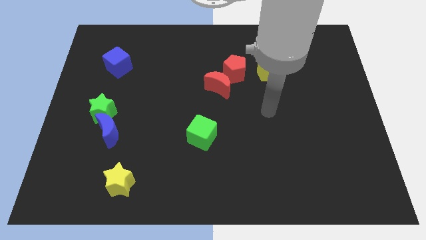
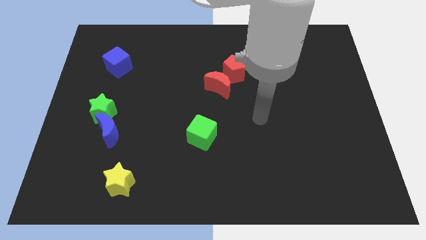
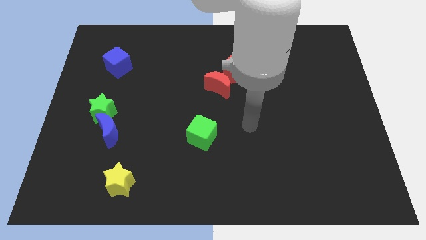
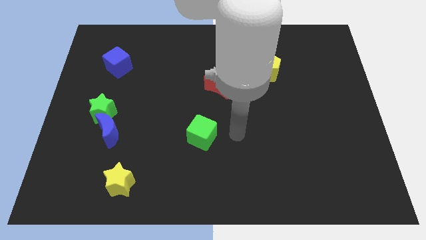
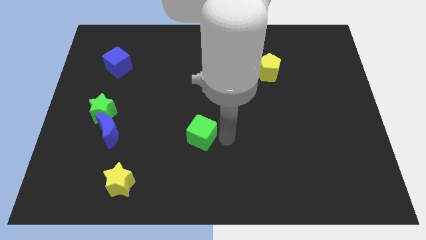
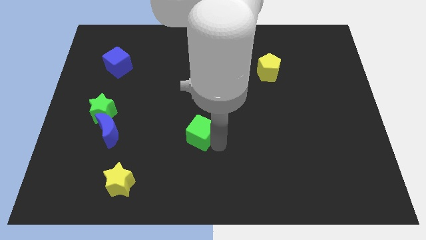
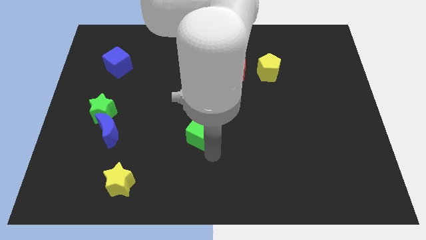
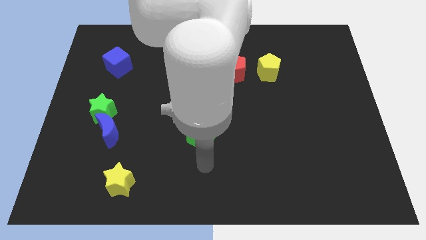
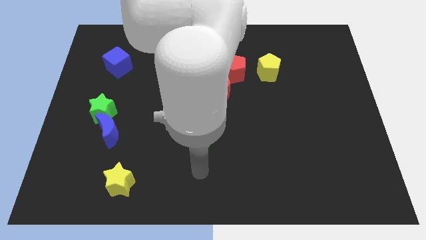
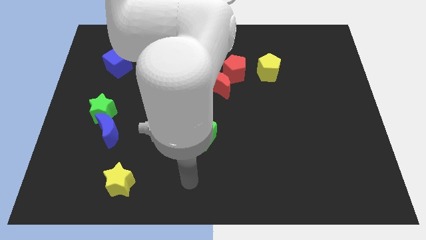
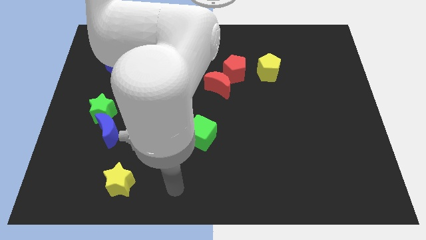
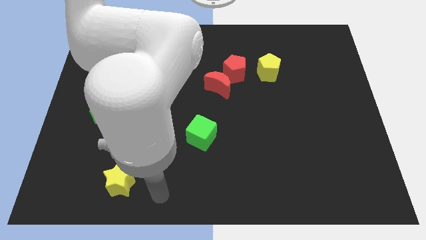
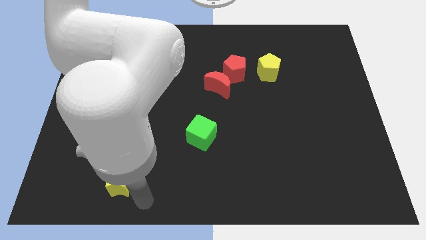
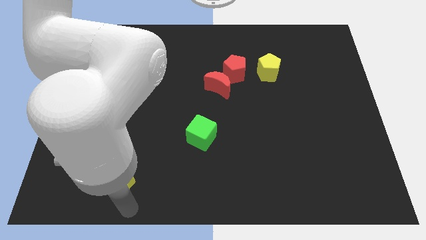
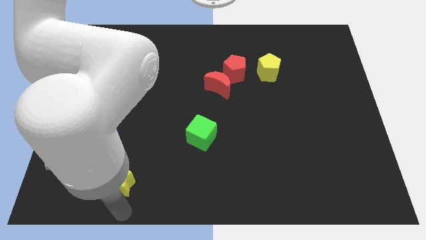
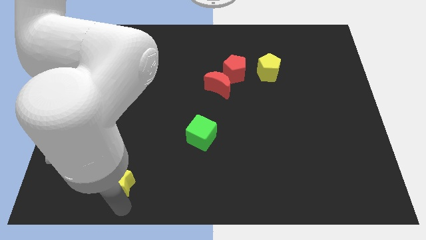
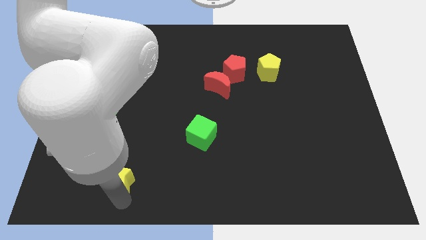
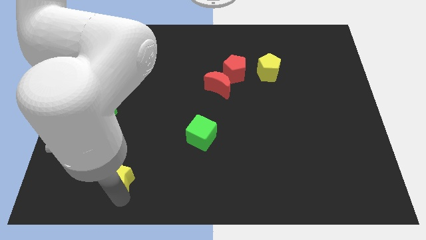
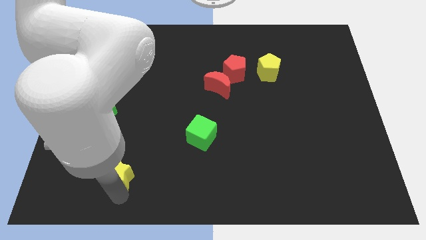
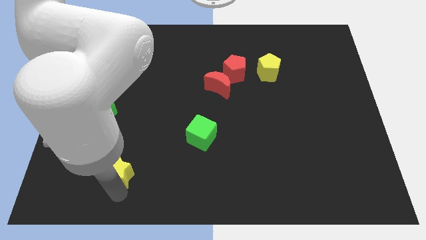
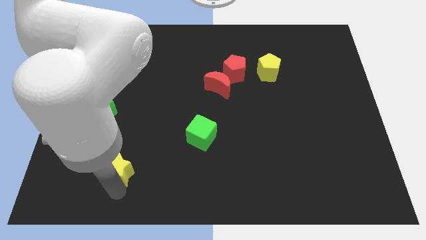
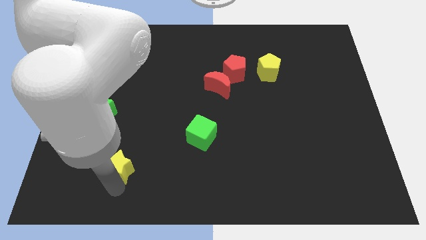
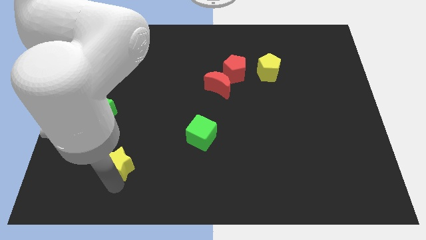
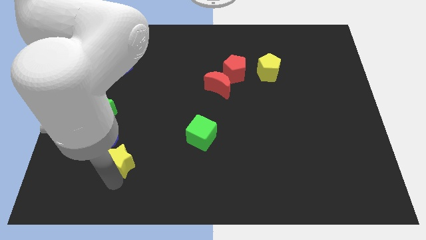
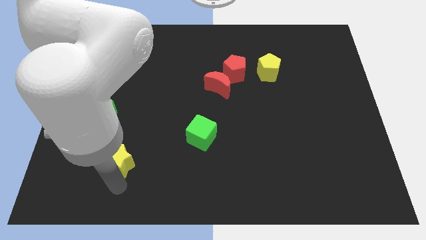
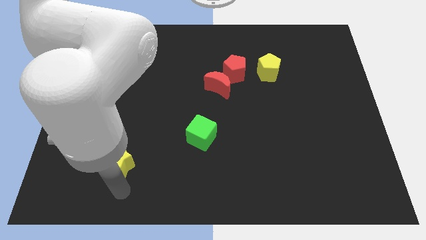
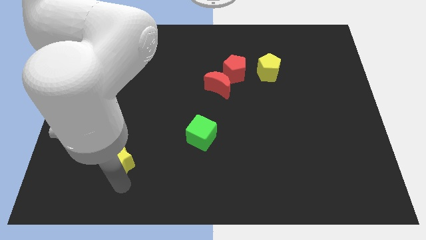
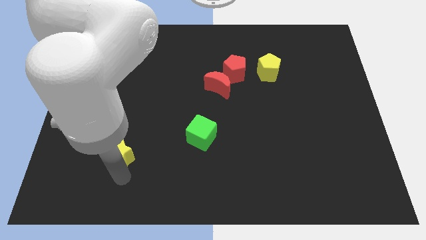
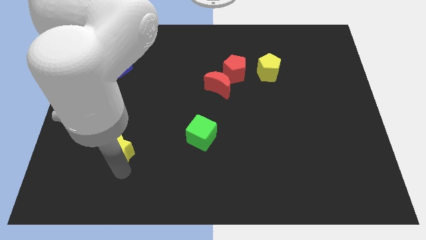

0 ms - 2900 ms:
slide the yellow star upwards a bit

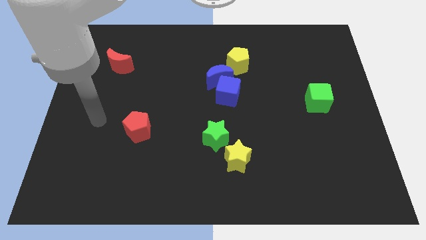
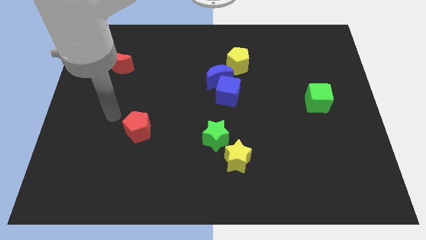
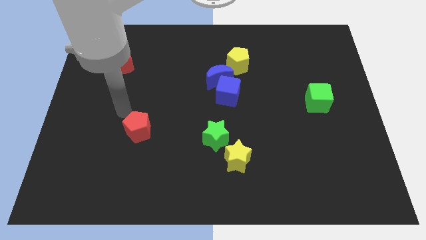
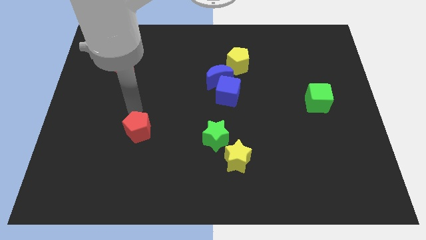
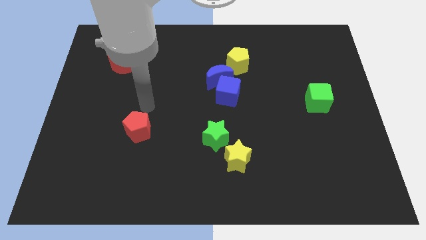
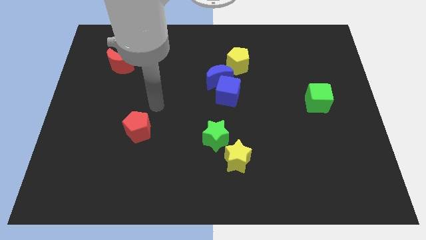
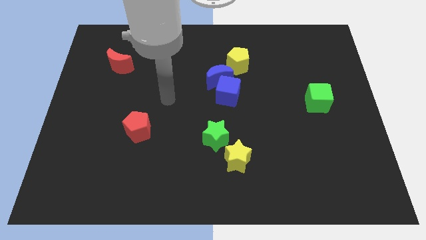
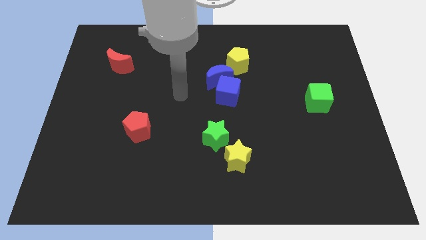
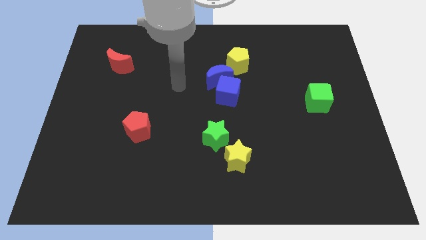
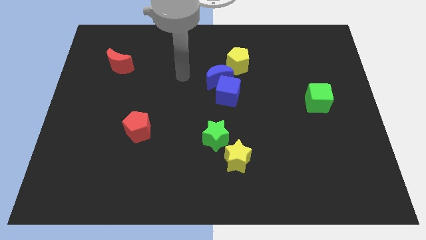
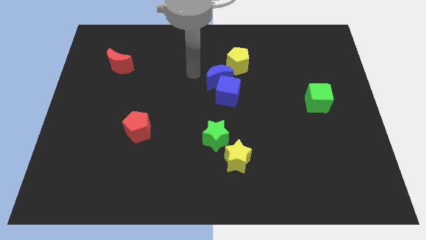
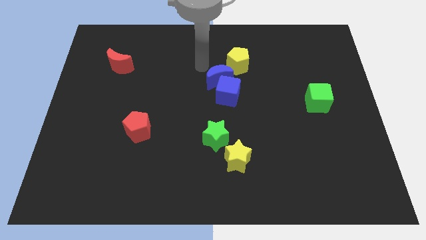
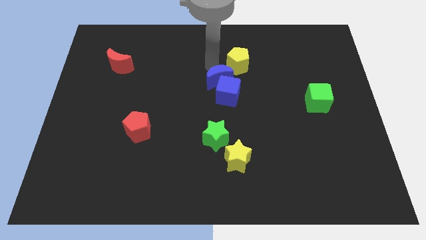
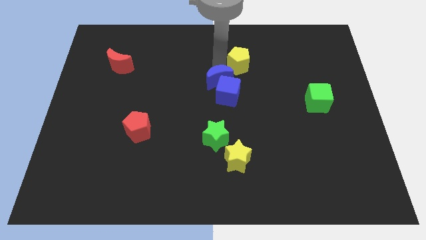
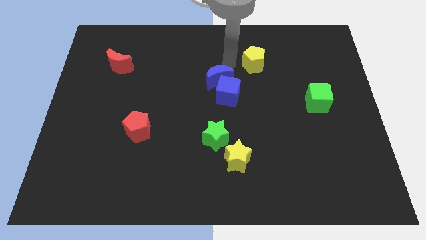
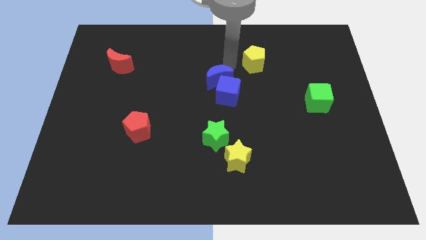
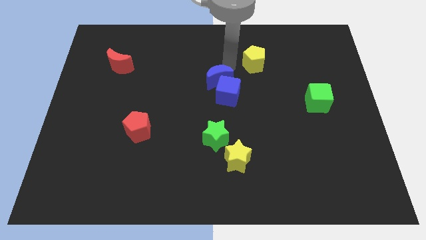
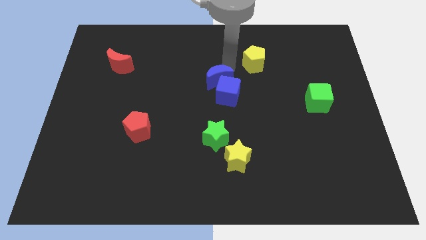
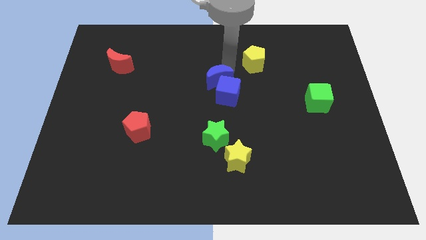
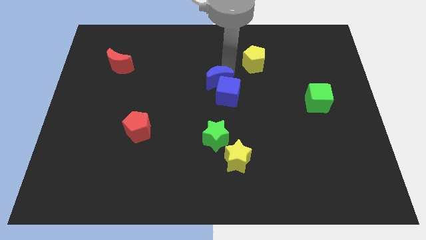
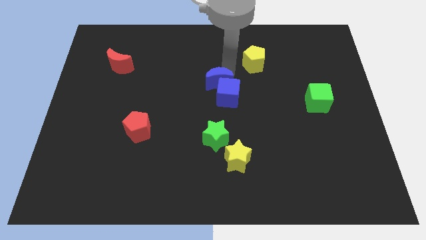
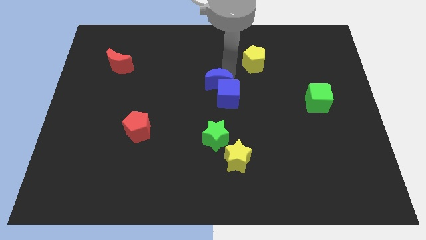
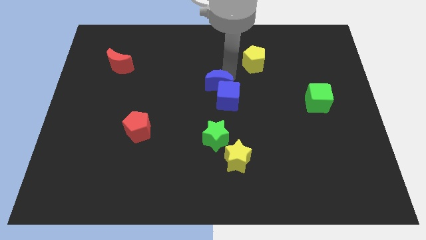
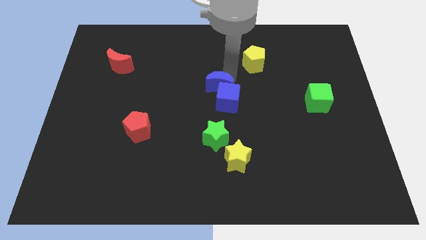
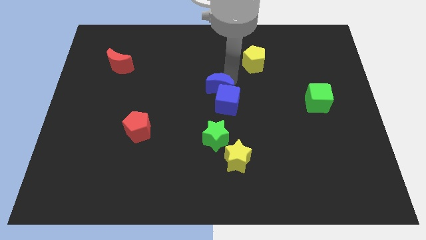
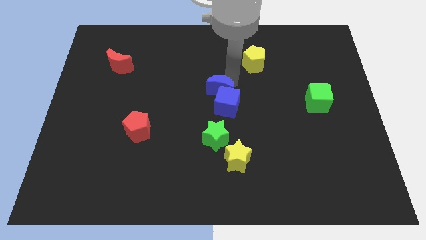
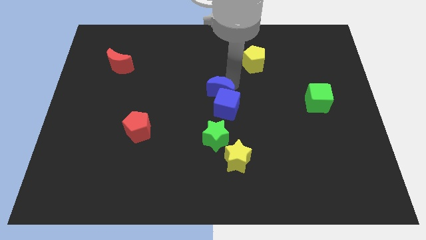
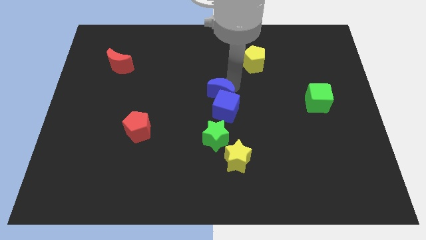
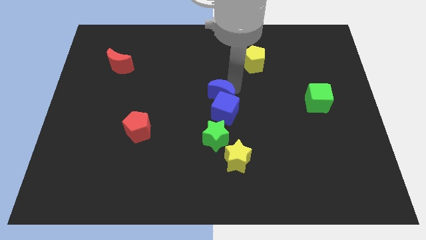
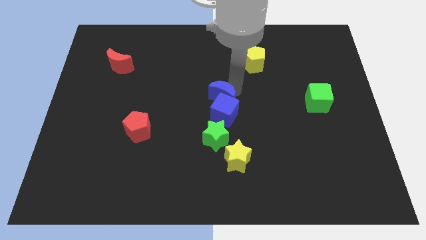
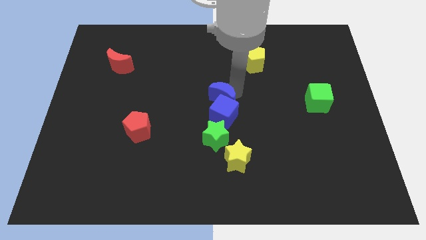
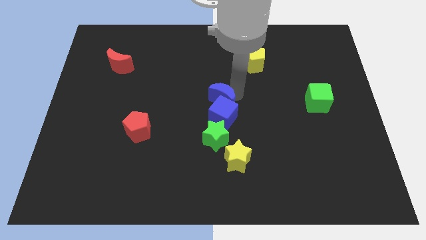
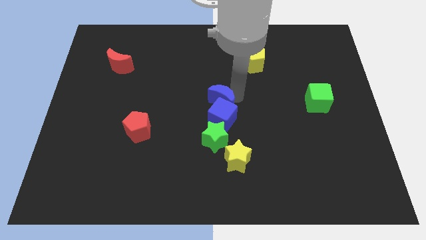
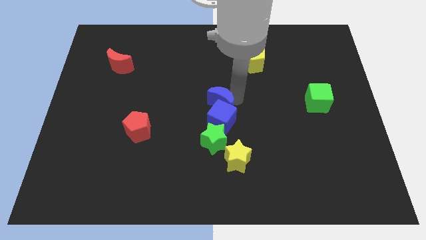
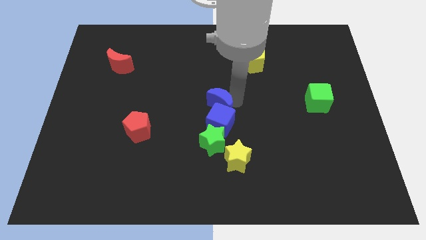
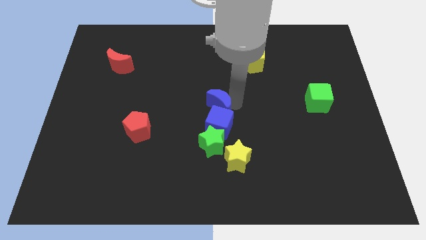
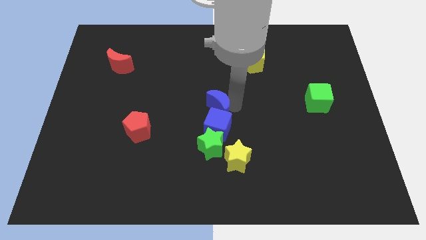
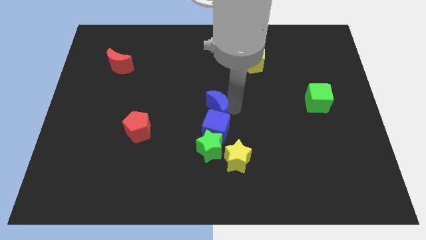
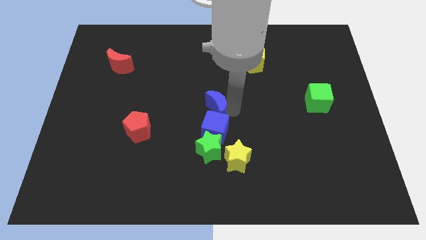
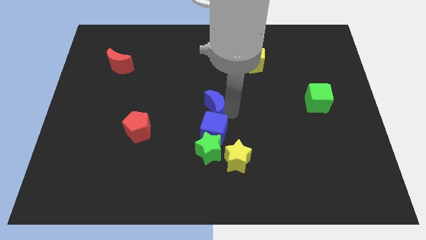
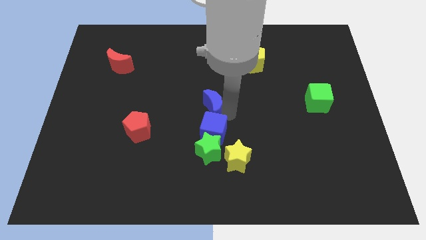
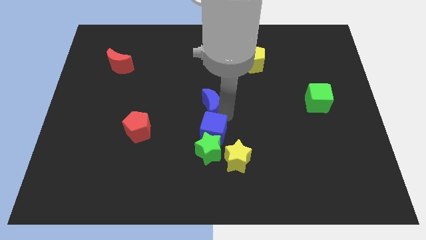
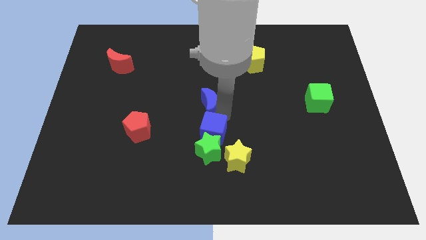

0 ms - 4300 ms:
slightly slide the blue moon downwards and then left

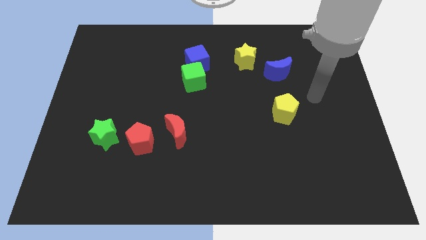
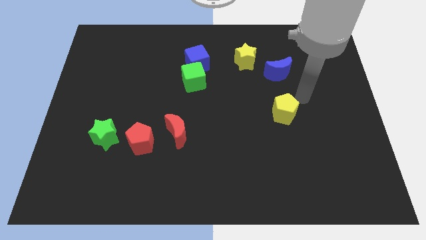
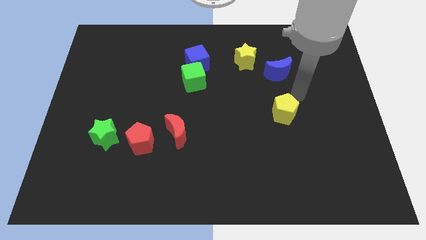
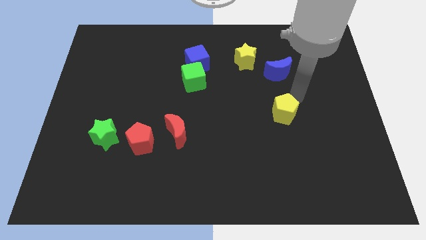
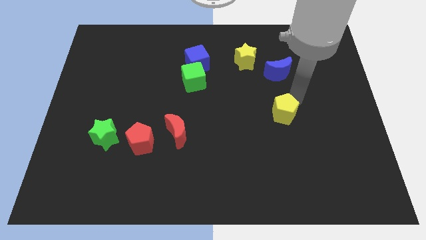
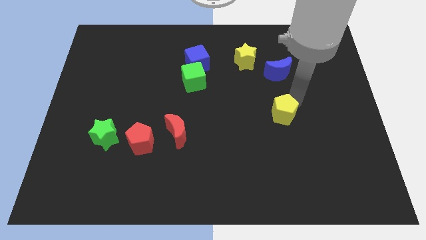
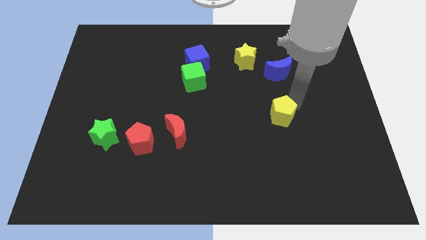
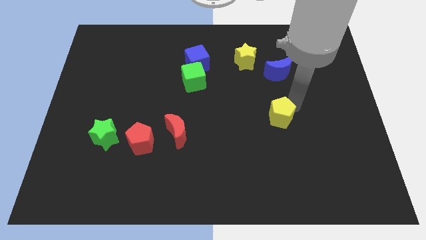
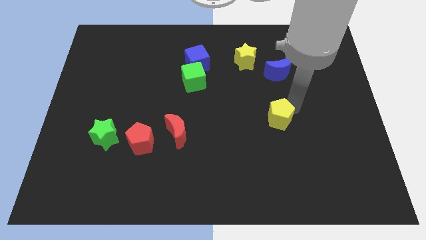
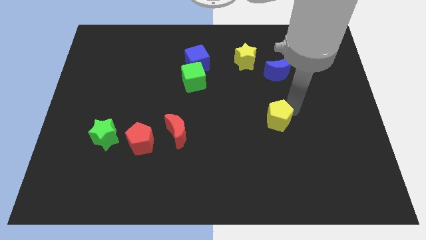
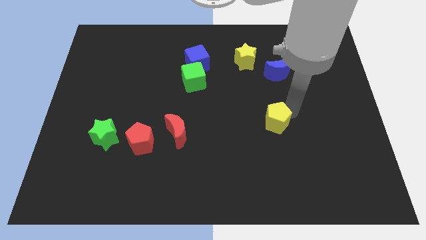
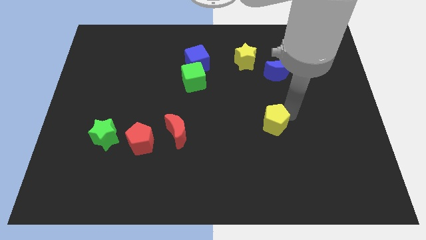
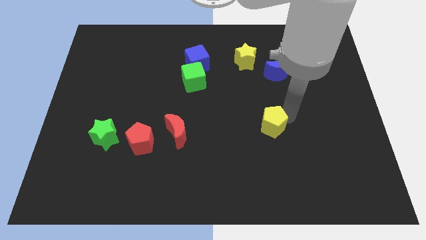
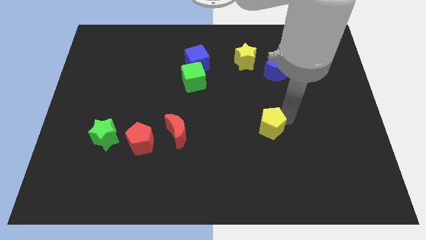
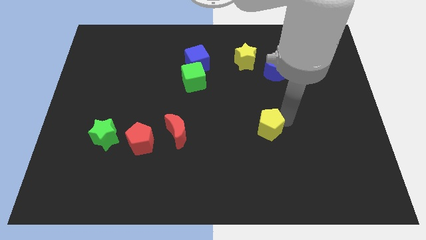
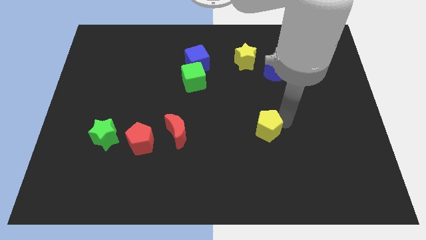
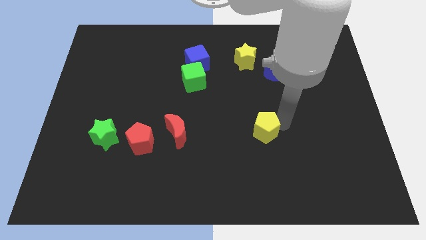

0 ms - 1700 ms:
push the yellow pentagon a bit downwards and then left
